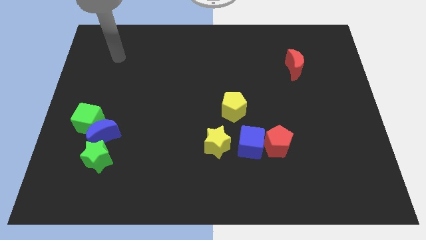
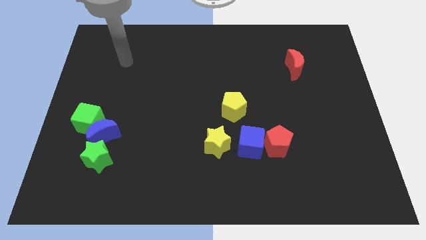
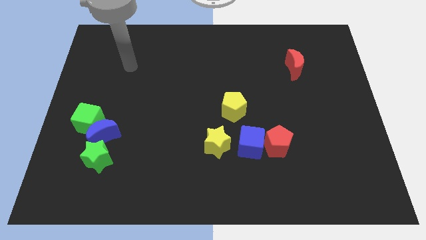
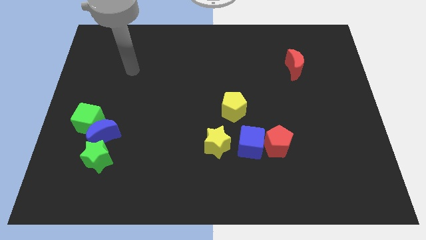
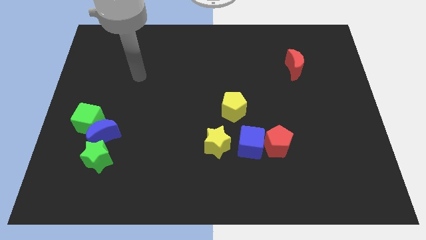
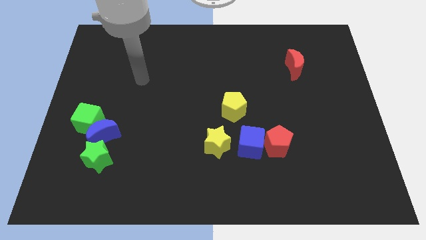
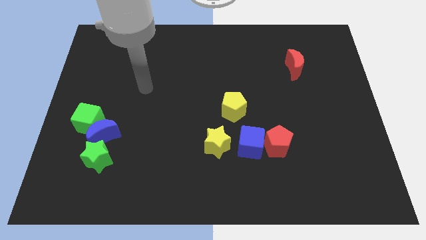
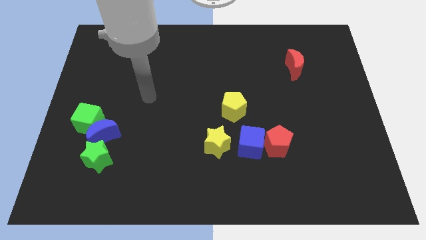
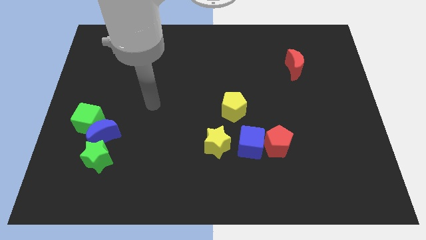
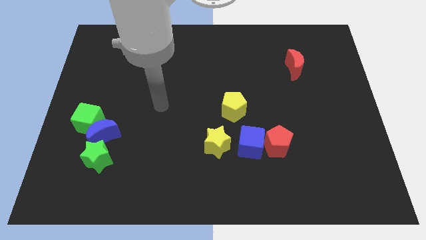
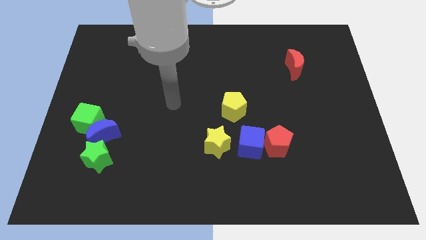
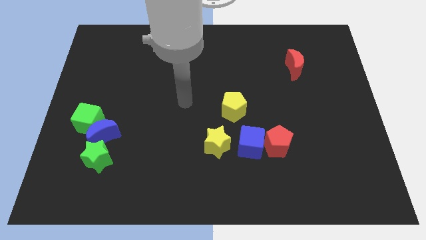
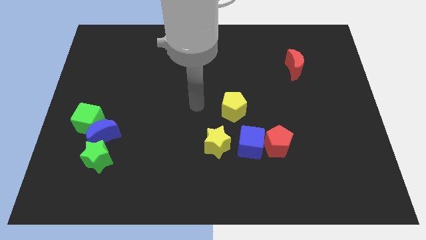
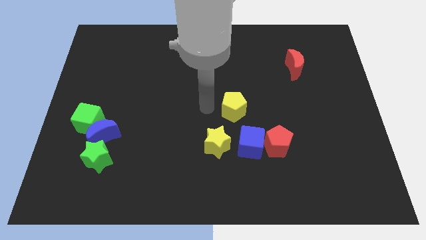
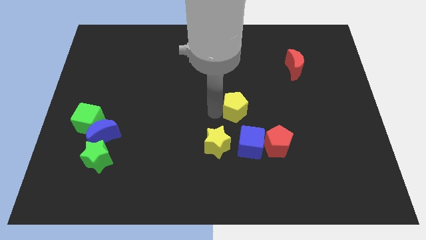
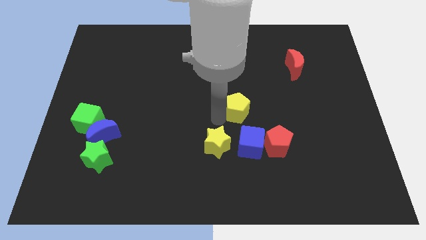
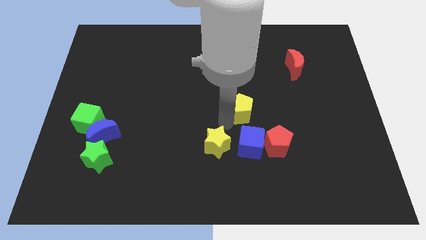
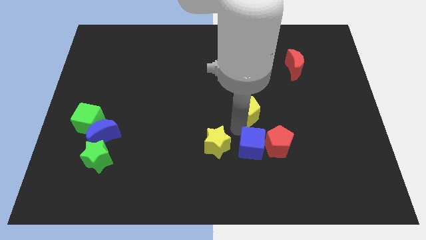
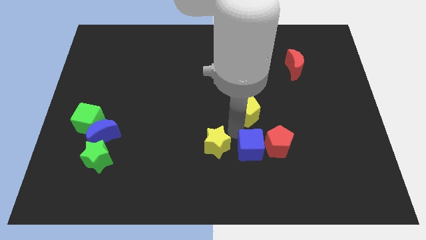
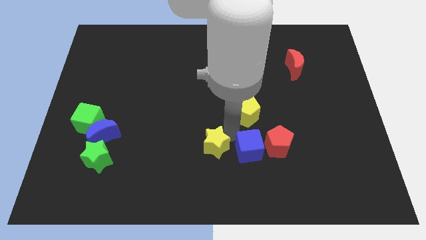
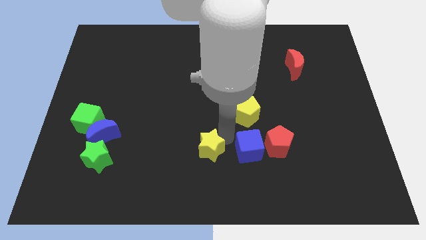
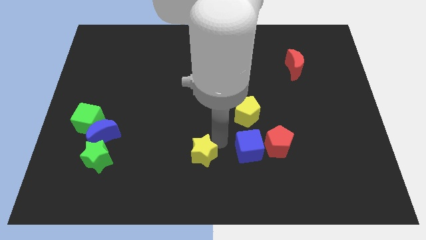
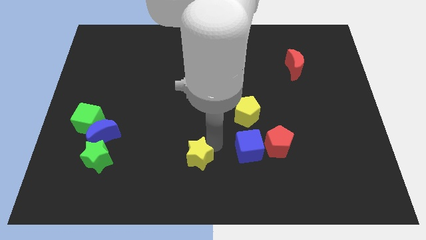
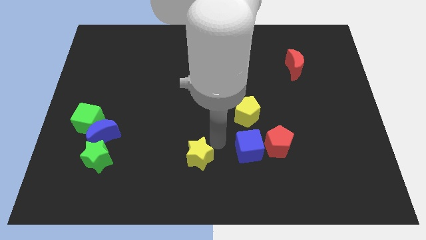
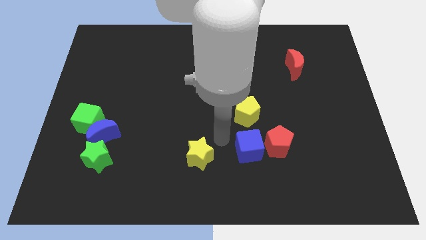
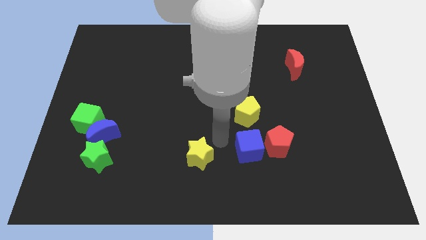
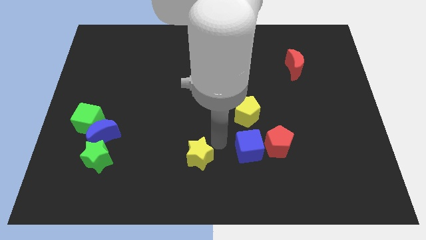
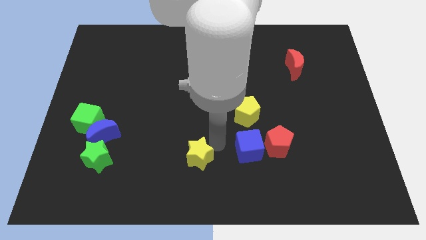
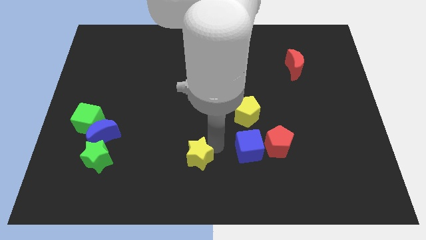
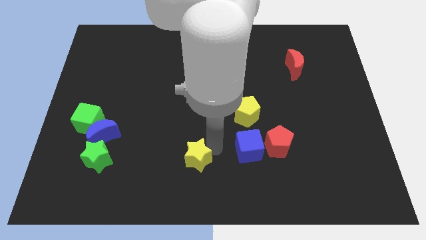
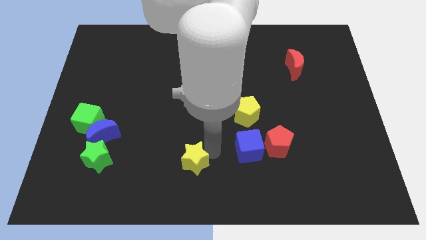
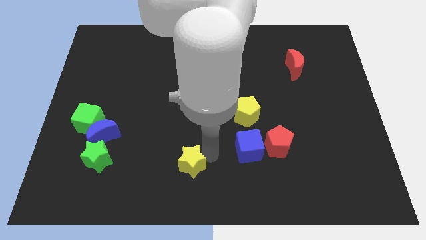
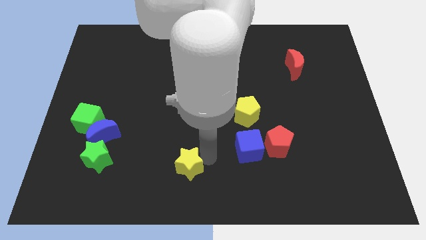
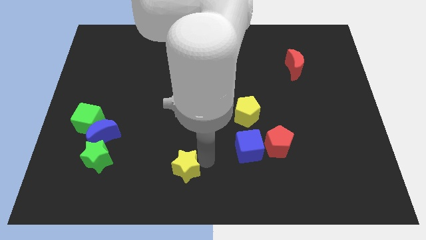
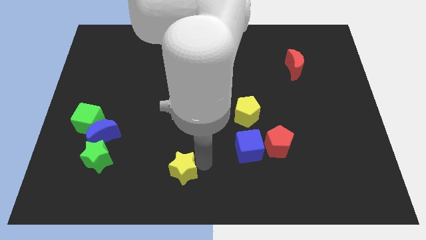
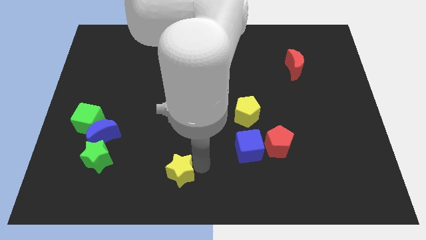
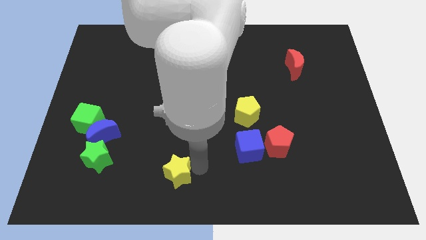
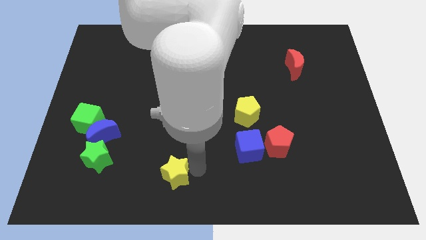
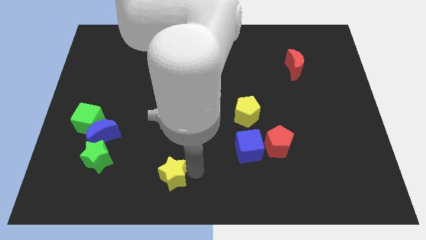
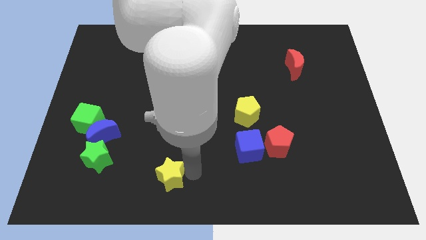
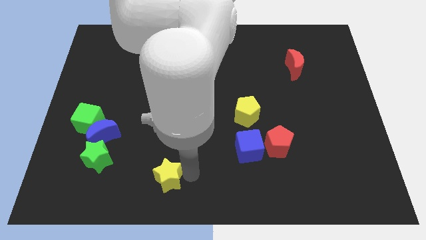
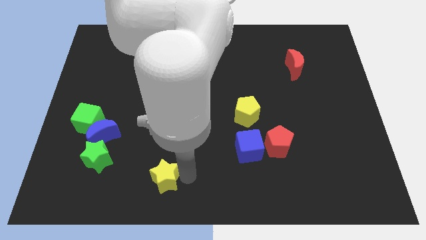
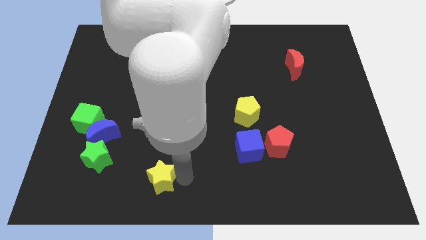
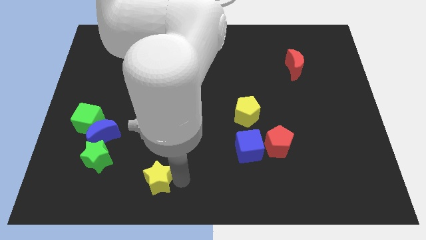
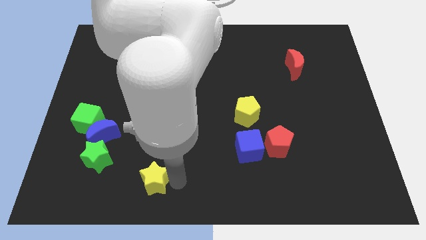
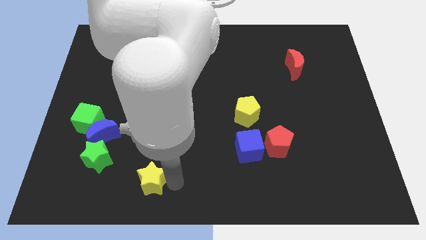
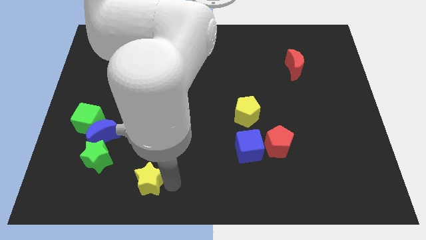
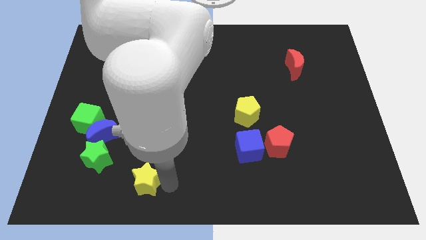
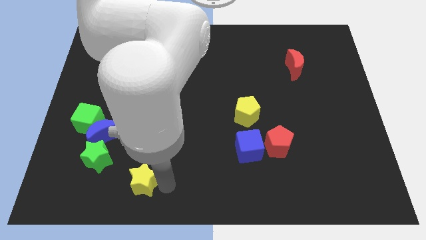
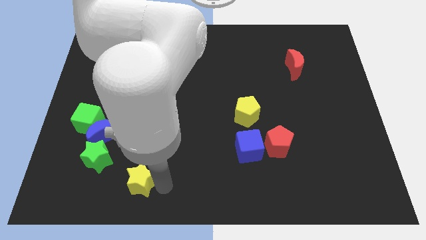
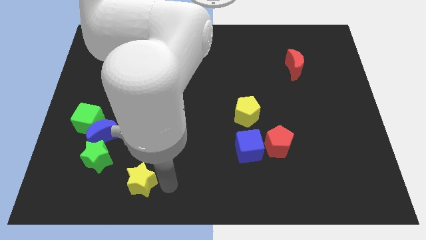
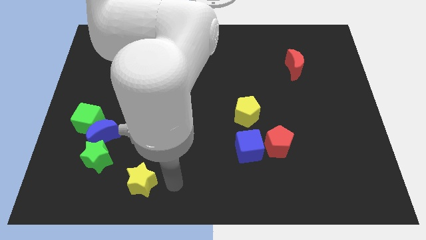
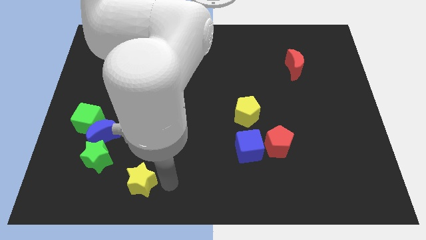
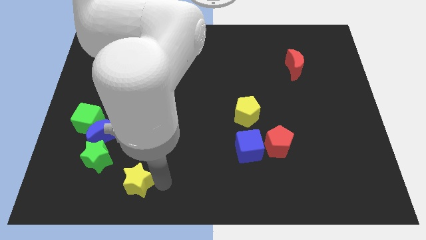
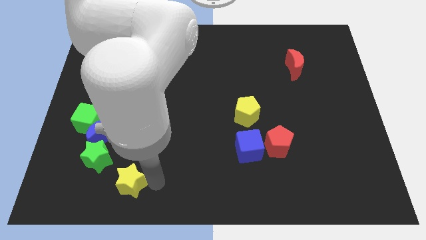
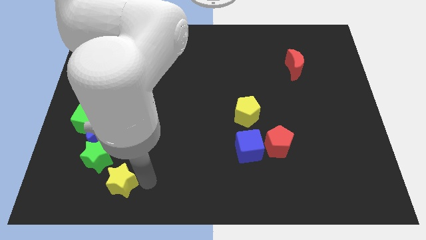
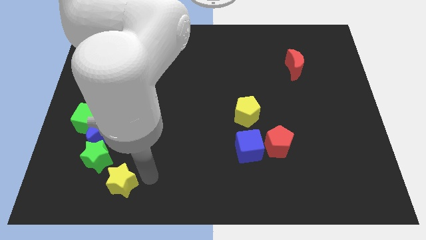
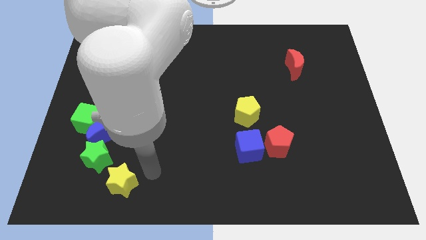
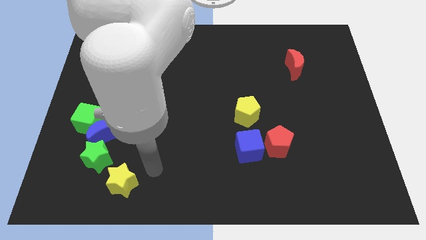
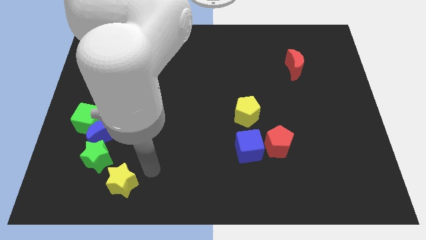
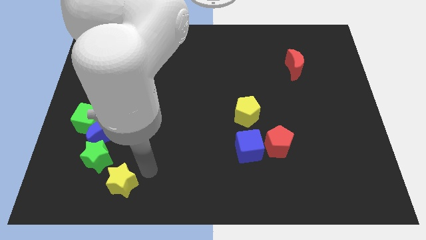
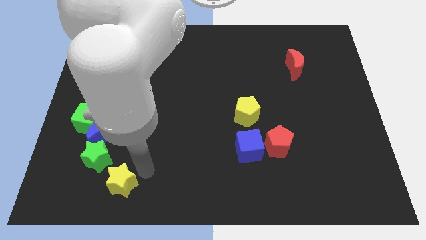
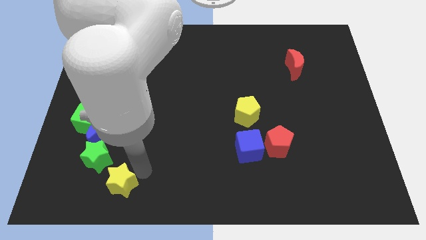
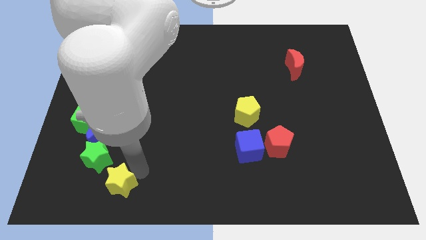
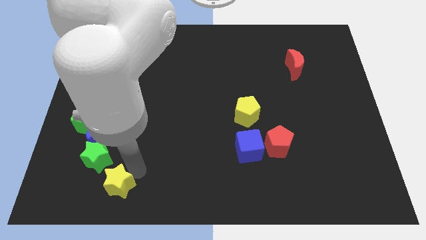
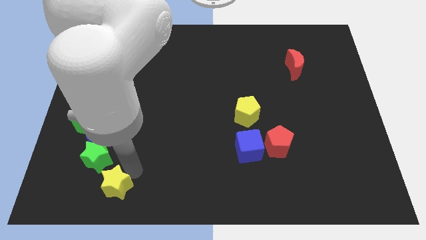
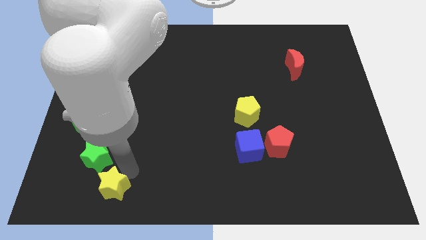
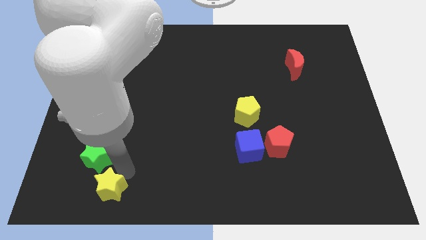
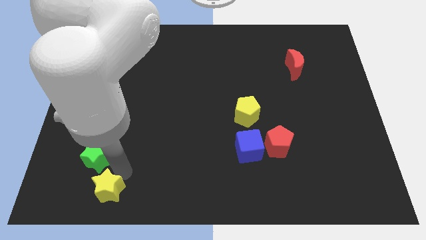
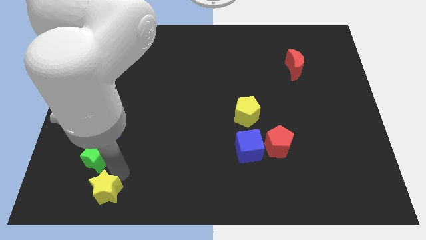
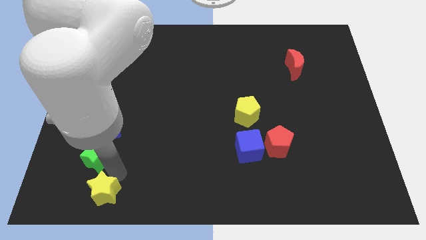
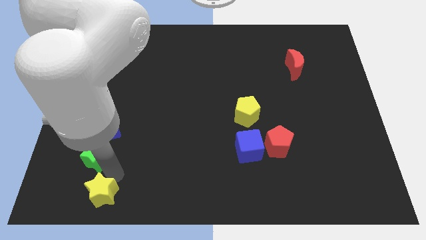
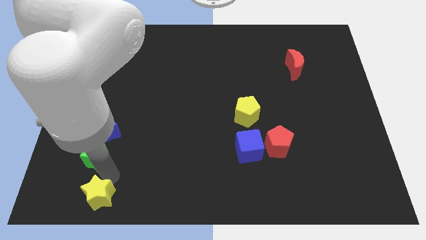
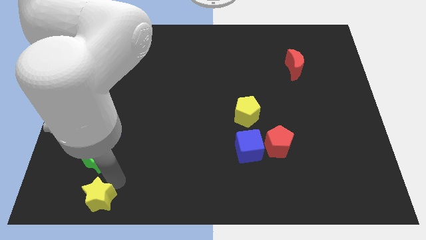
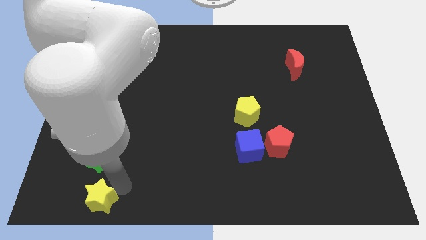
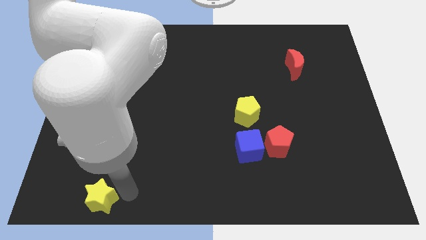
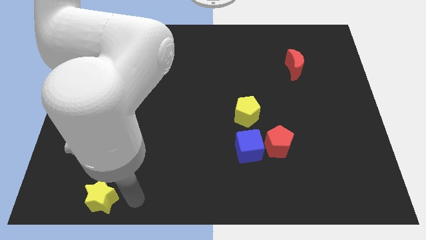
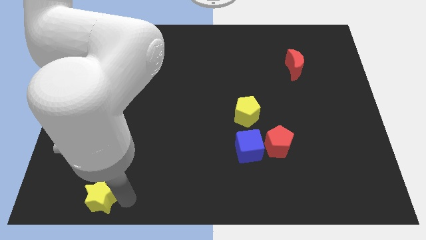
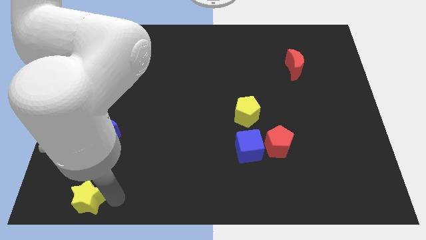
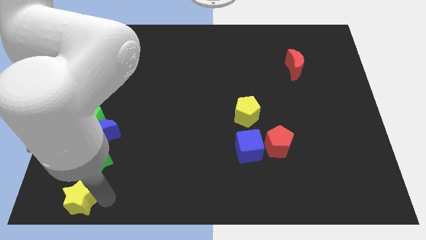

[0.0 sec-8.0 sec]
put the yellow star to the bottom left
